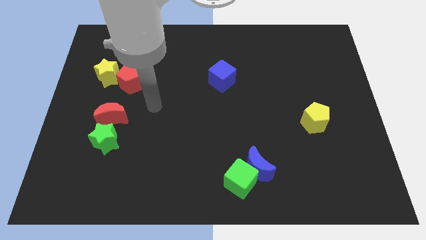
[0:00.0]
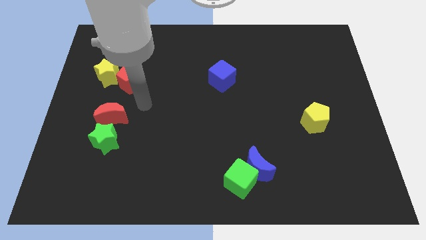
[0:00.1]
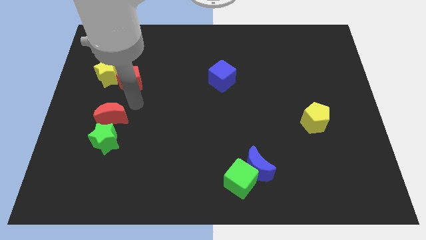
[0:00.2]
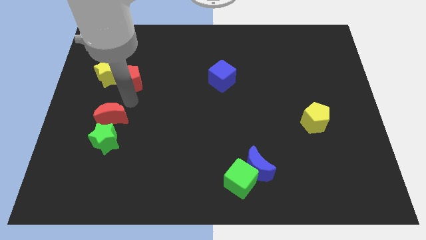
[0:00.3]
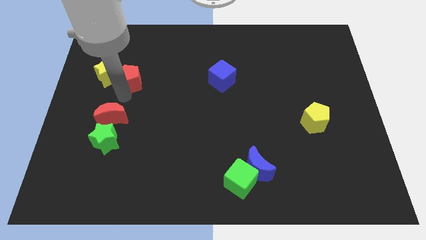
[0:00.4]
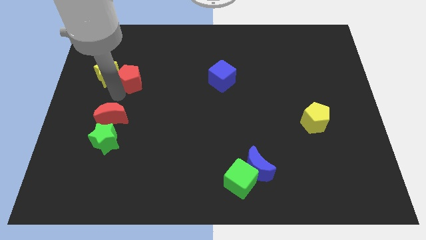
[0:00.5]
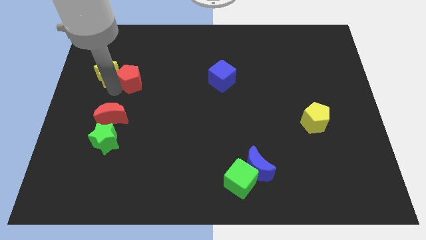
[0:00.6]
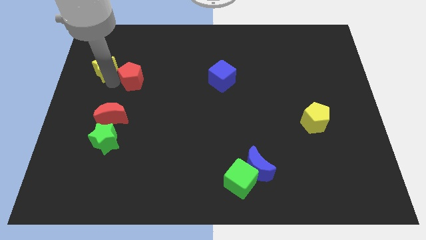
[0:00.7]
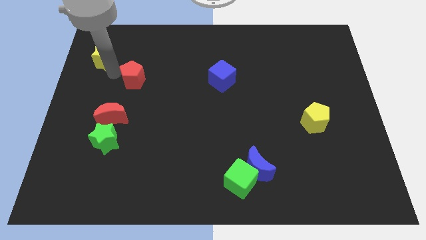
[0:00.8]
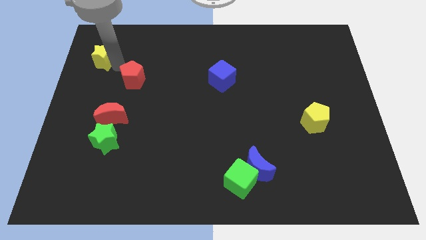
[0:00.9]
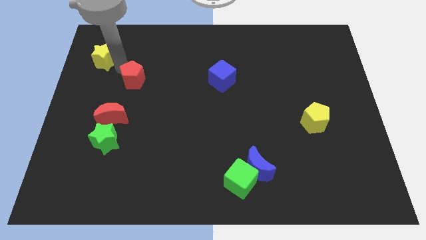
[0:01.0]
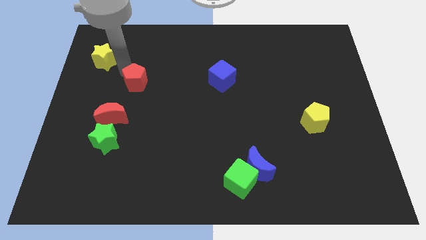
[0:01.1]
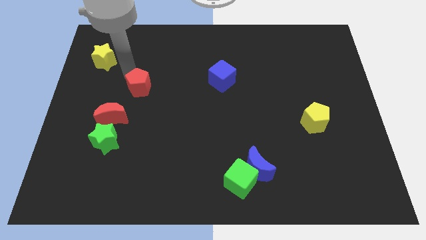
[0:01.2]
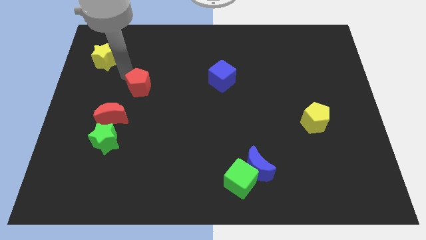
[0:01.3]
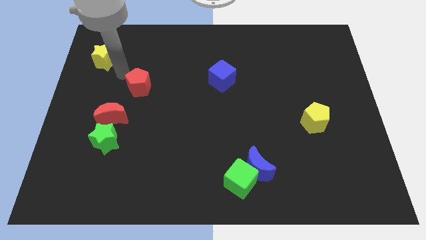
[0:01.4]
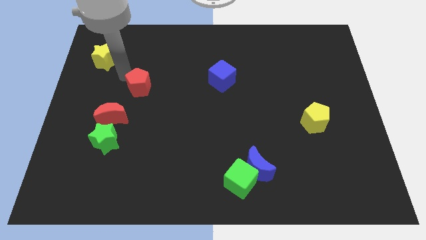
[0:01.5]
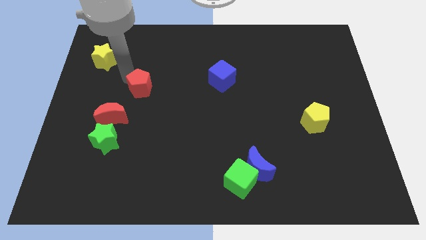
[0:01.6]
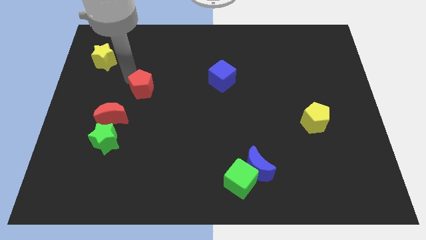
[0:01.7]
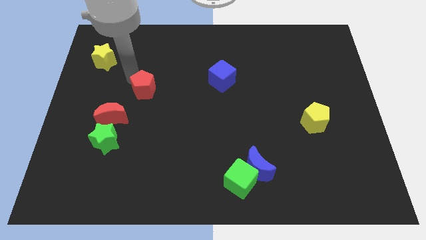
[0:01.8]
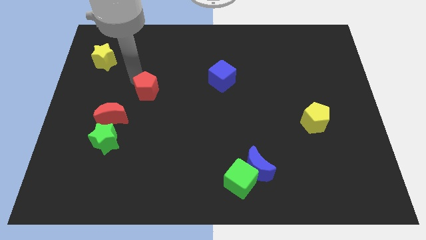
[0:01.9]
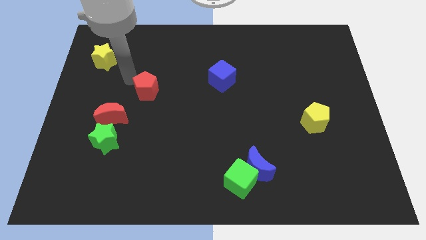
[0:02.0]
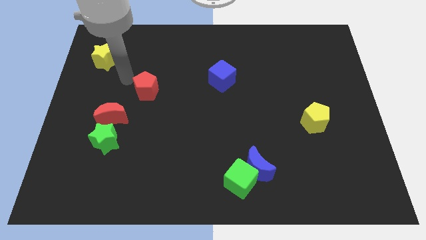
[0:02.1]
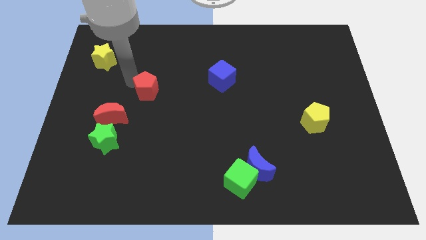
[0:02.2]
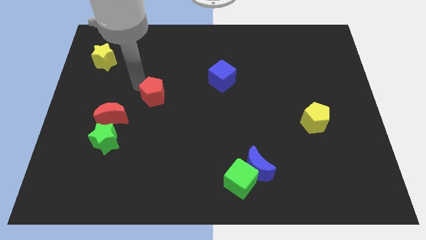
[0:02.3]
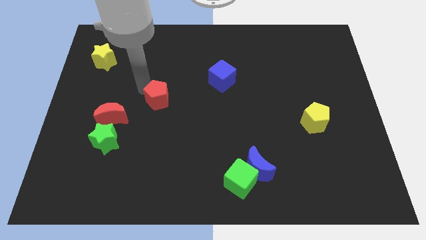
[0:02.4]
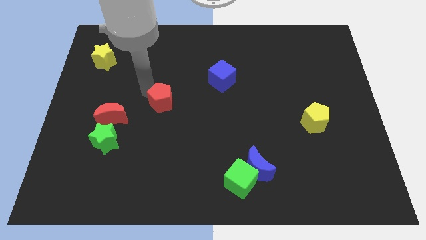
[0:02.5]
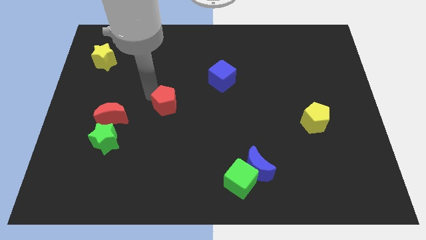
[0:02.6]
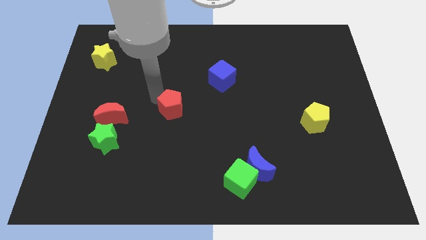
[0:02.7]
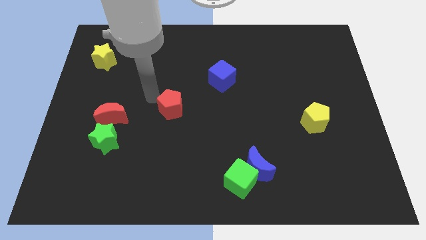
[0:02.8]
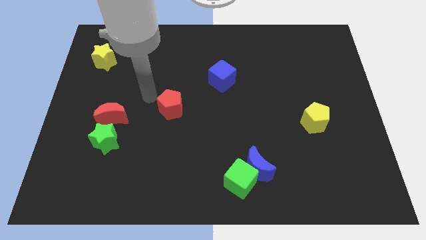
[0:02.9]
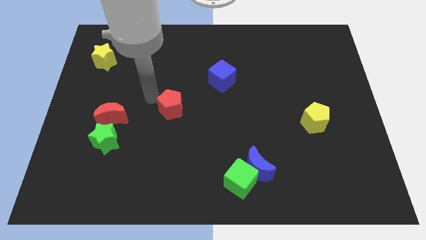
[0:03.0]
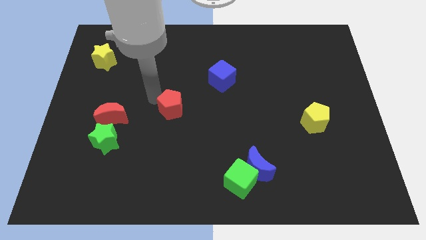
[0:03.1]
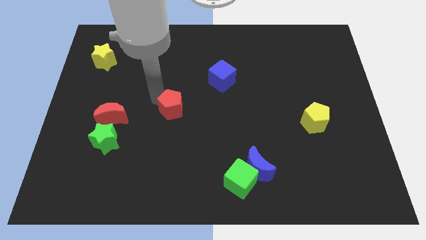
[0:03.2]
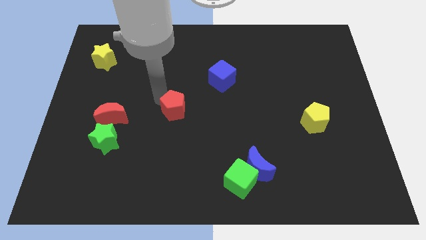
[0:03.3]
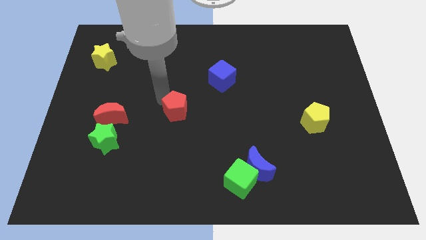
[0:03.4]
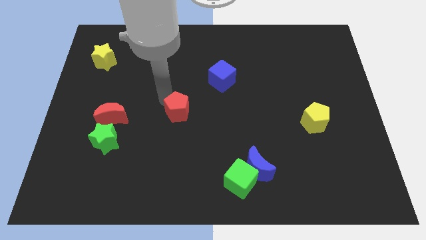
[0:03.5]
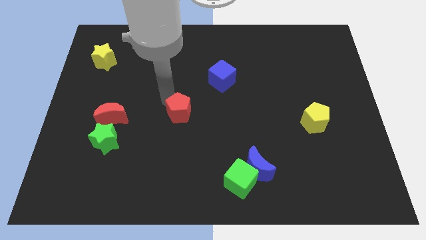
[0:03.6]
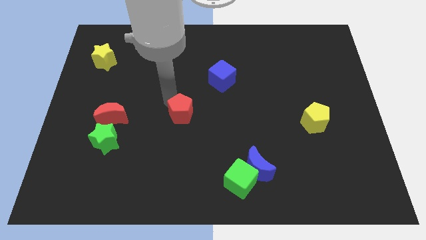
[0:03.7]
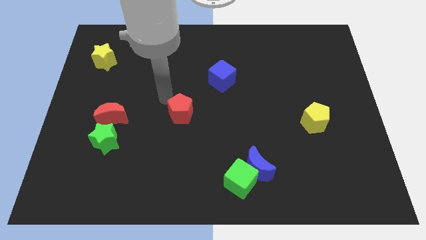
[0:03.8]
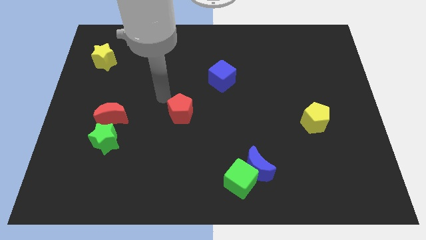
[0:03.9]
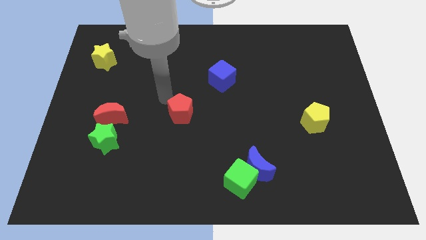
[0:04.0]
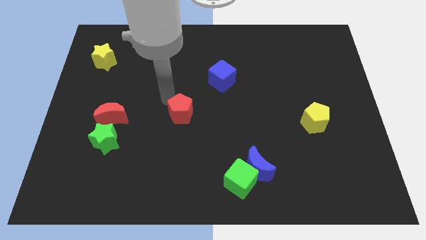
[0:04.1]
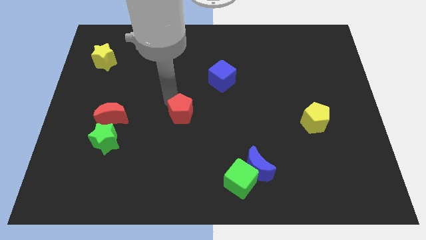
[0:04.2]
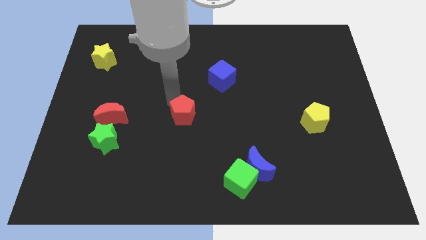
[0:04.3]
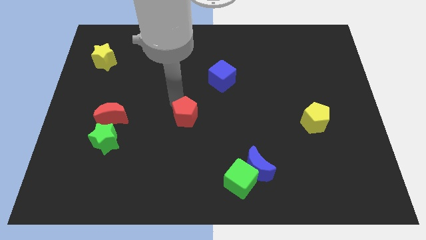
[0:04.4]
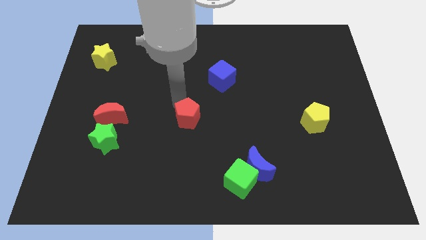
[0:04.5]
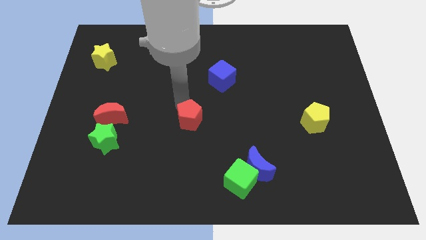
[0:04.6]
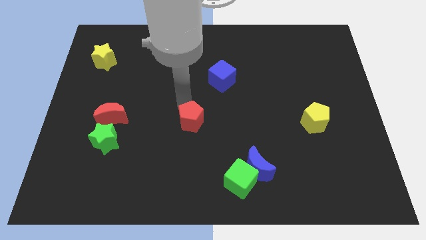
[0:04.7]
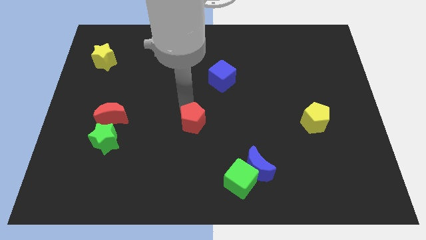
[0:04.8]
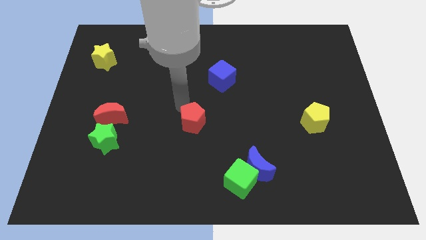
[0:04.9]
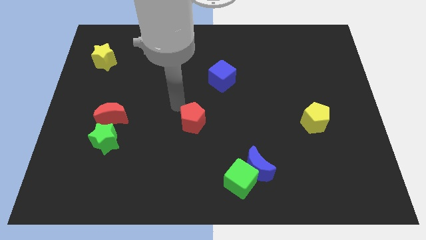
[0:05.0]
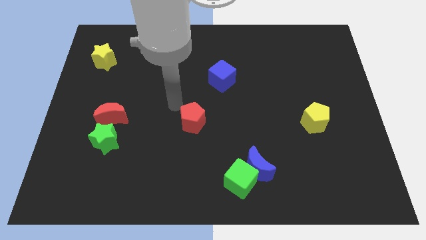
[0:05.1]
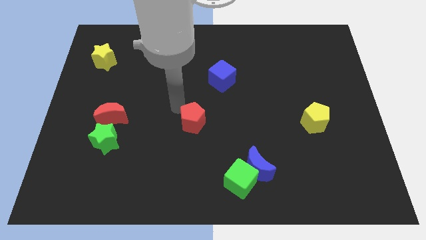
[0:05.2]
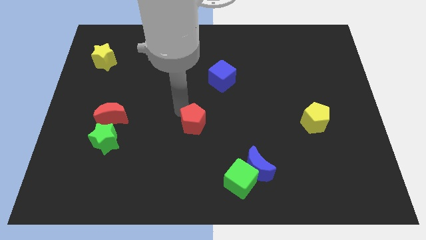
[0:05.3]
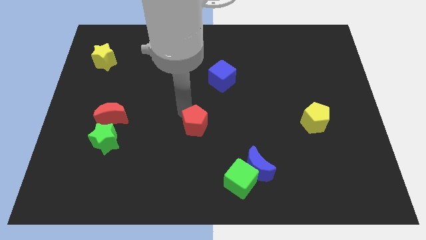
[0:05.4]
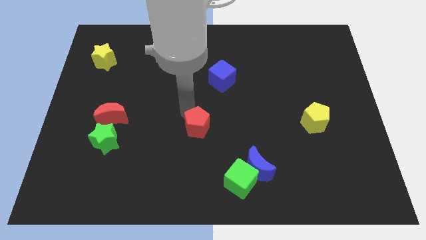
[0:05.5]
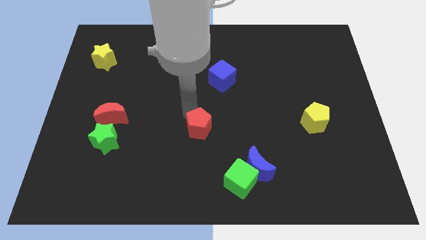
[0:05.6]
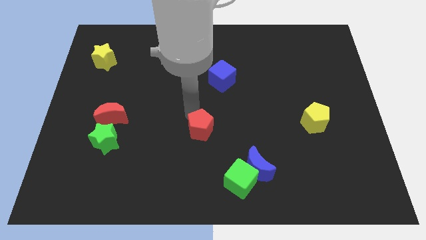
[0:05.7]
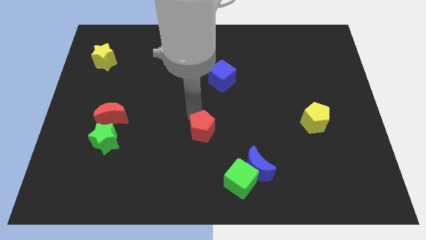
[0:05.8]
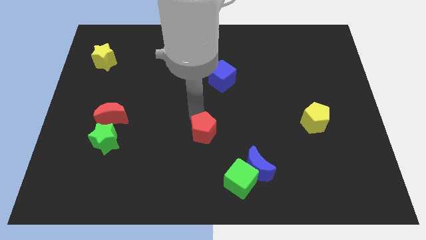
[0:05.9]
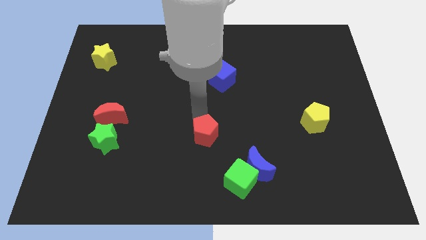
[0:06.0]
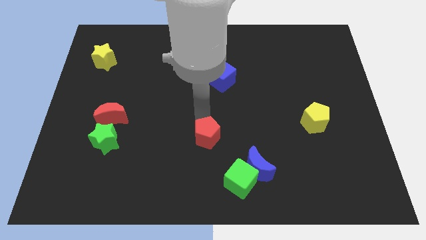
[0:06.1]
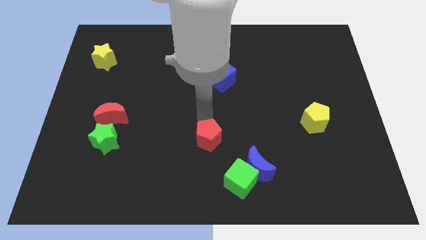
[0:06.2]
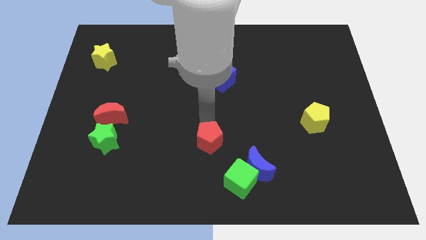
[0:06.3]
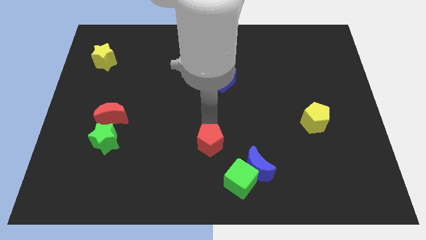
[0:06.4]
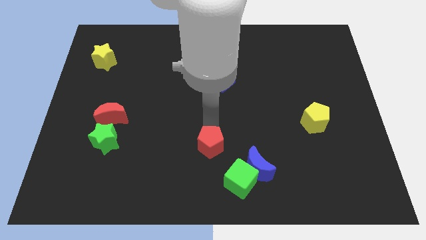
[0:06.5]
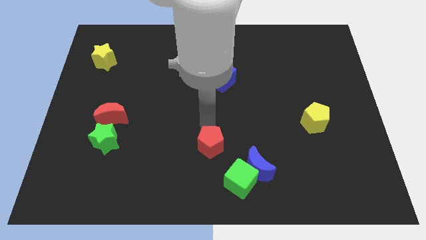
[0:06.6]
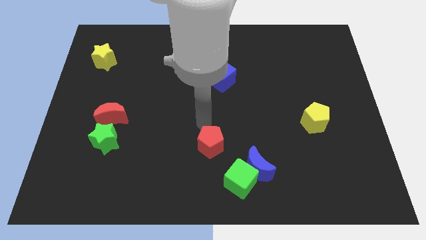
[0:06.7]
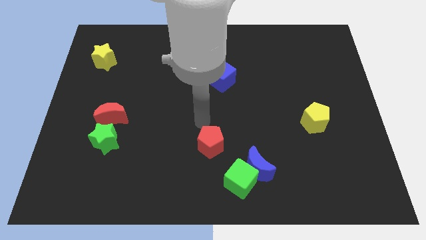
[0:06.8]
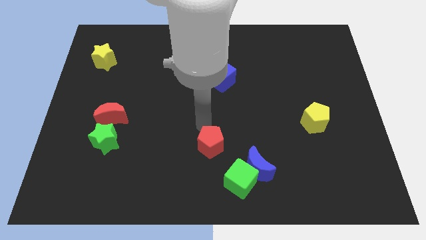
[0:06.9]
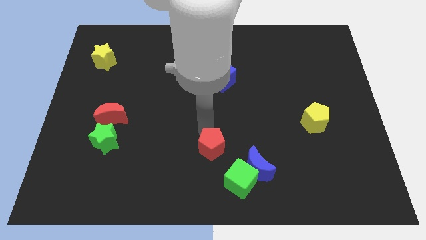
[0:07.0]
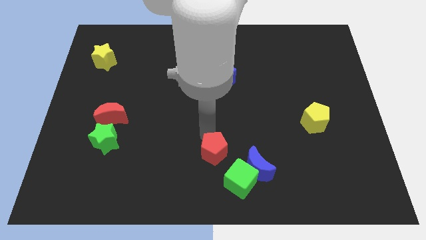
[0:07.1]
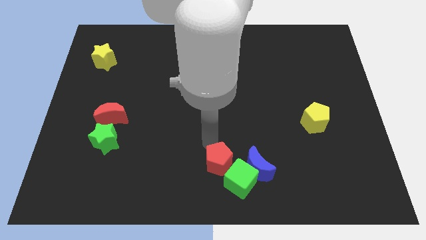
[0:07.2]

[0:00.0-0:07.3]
put the red pentagon close to the green cube

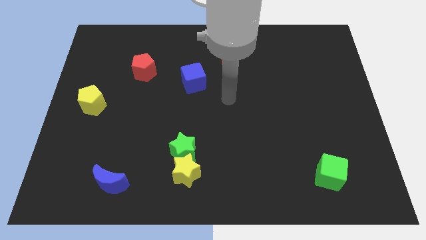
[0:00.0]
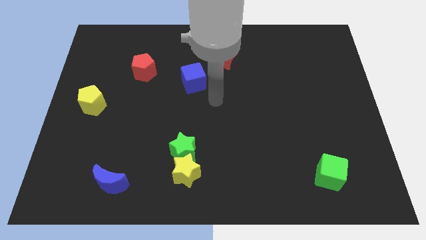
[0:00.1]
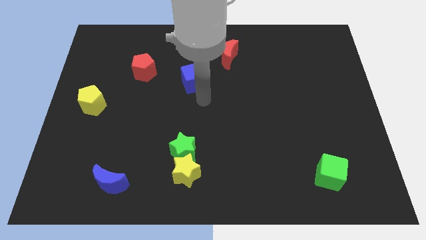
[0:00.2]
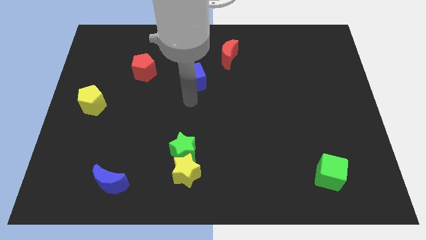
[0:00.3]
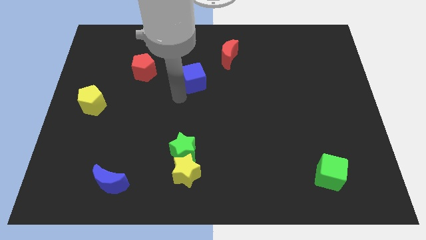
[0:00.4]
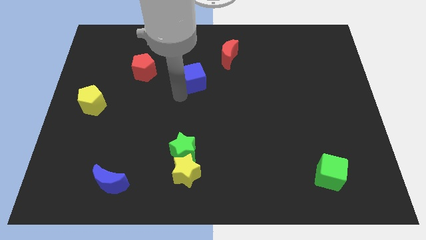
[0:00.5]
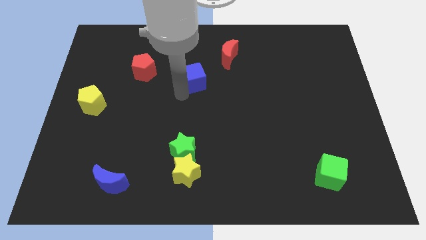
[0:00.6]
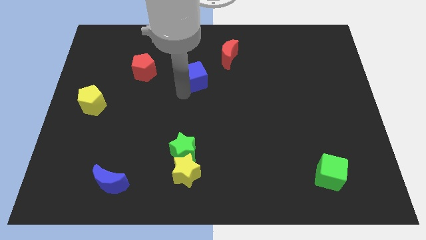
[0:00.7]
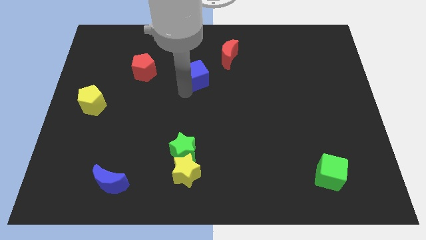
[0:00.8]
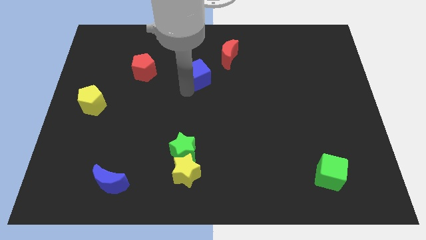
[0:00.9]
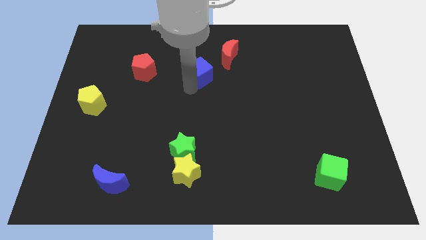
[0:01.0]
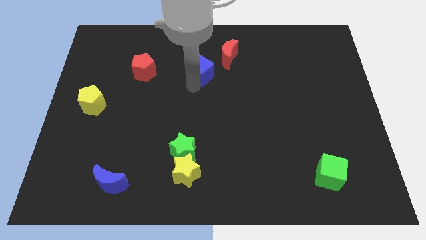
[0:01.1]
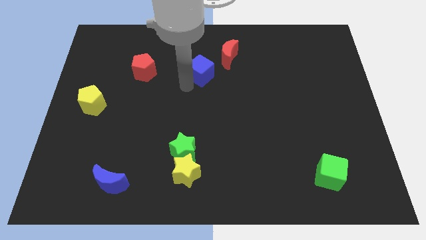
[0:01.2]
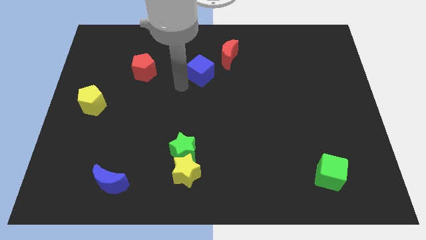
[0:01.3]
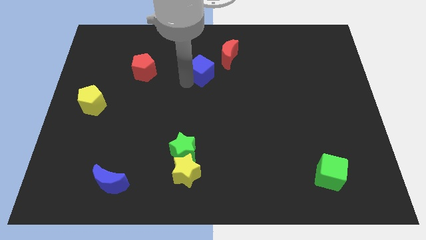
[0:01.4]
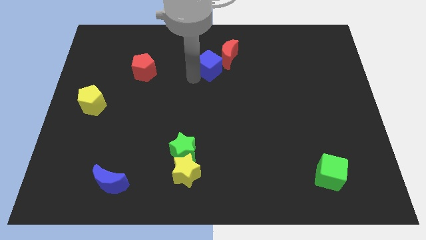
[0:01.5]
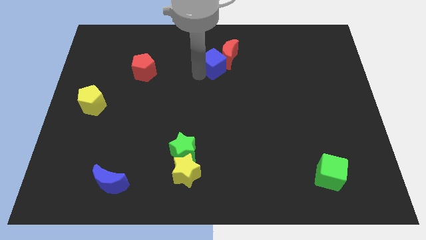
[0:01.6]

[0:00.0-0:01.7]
put the blue cube to the red moon
